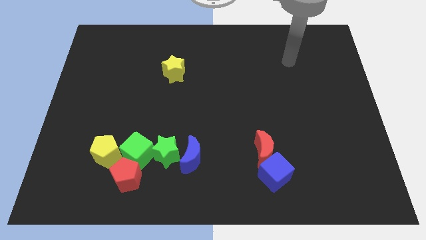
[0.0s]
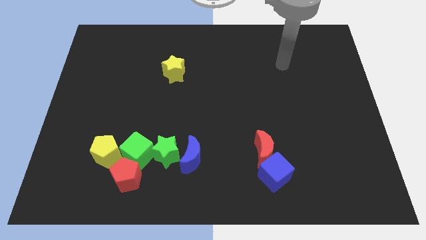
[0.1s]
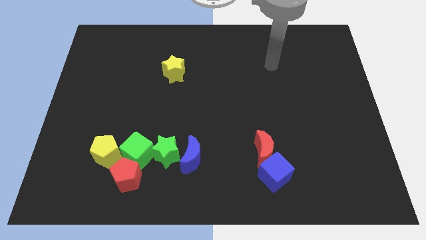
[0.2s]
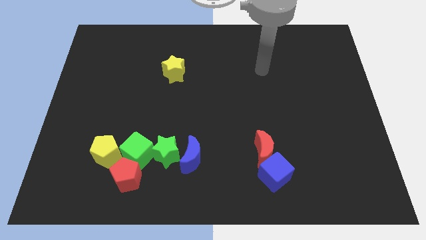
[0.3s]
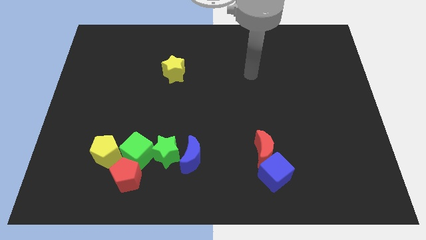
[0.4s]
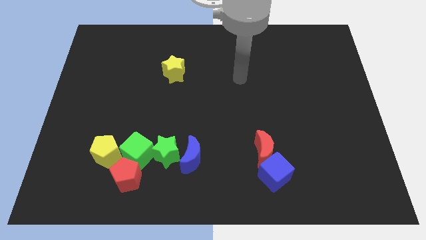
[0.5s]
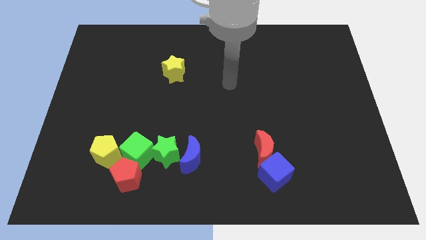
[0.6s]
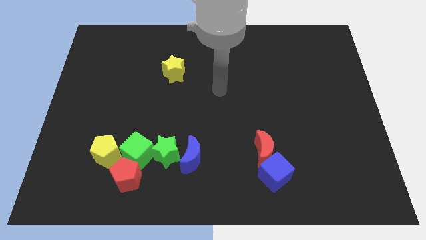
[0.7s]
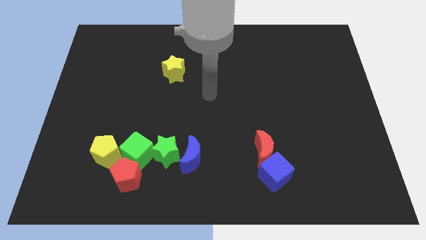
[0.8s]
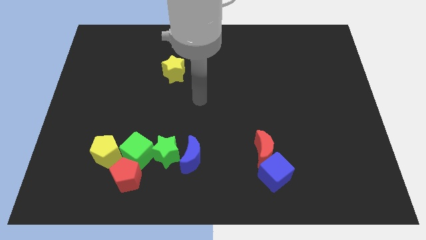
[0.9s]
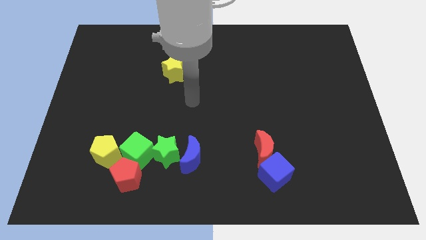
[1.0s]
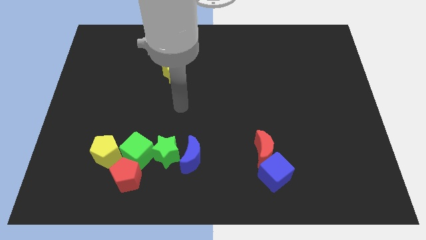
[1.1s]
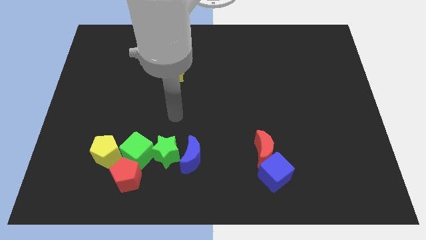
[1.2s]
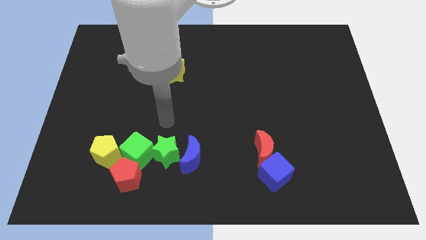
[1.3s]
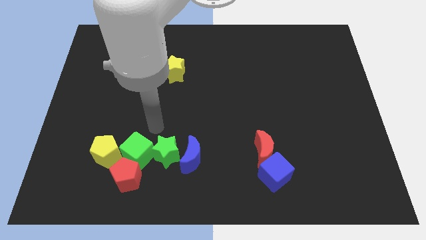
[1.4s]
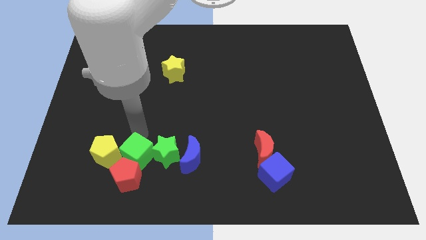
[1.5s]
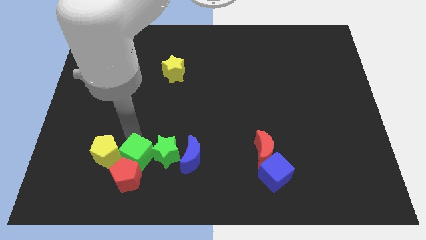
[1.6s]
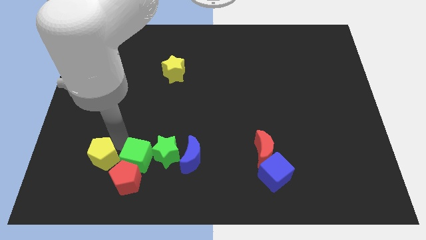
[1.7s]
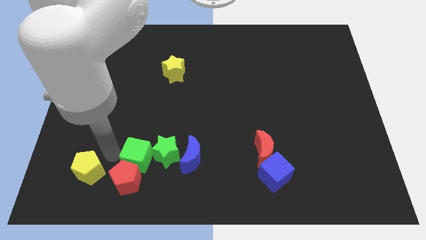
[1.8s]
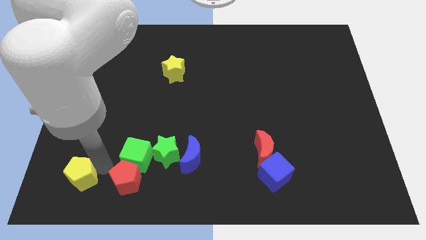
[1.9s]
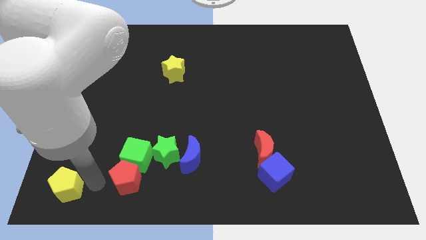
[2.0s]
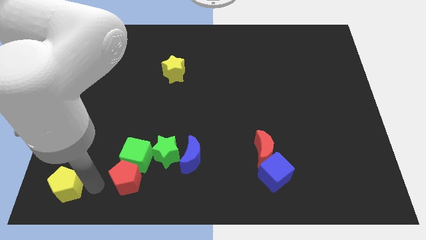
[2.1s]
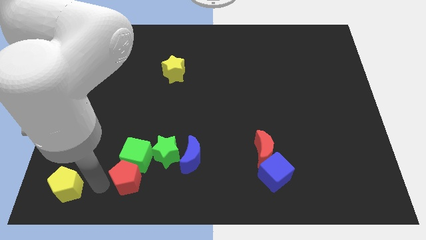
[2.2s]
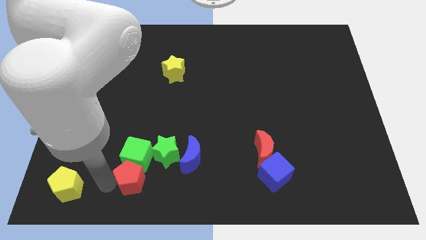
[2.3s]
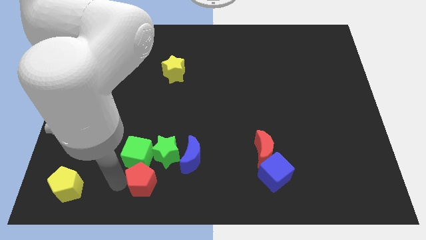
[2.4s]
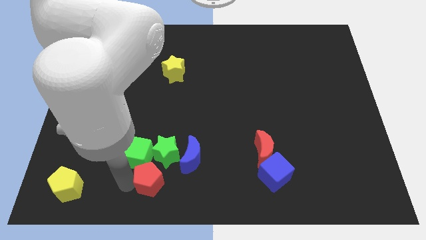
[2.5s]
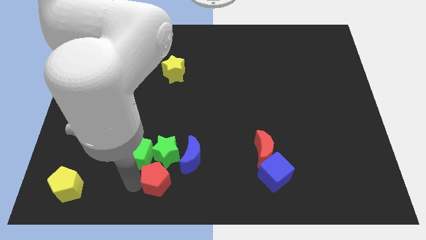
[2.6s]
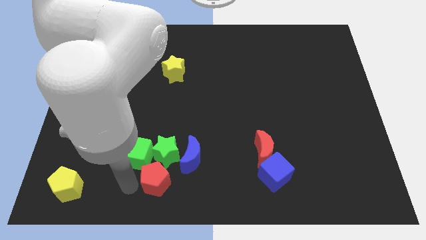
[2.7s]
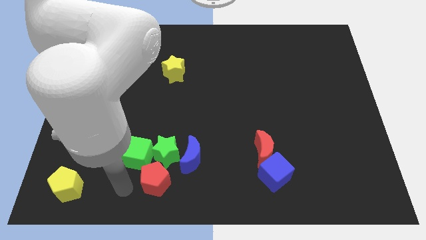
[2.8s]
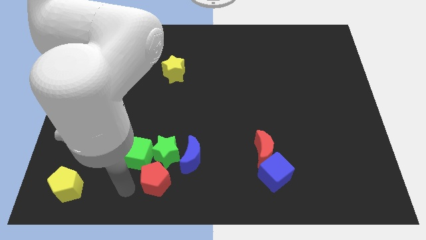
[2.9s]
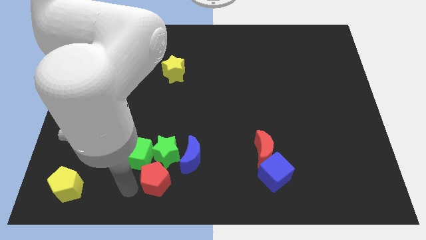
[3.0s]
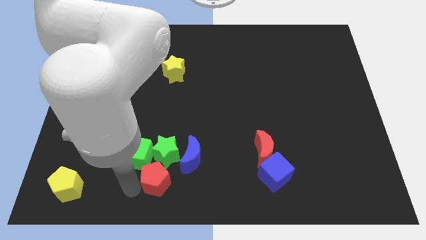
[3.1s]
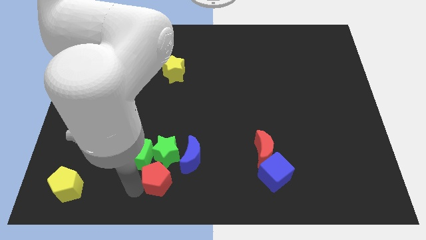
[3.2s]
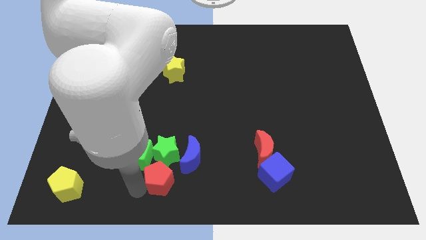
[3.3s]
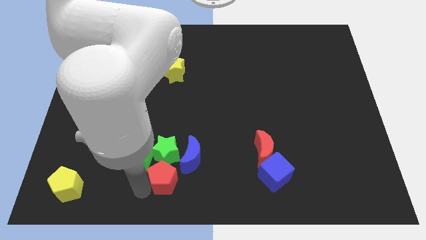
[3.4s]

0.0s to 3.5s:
push the red pentagon a bit to the right

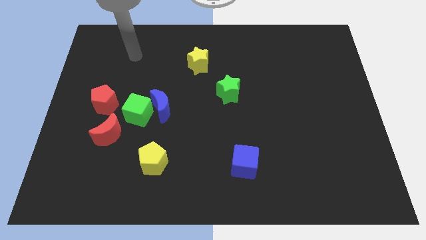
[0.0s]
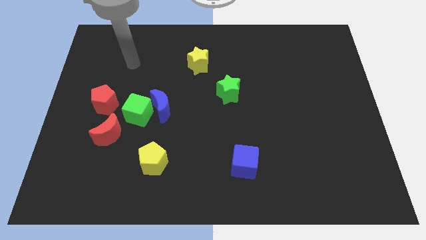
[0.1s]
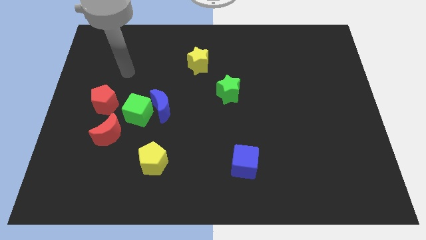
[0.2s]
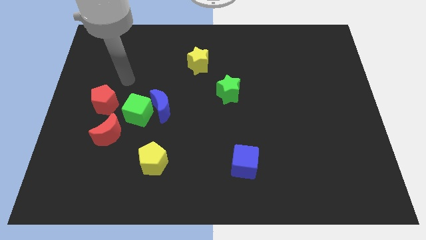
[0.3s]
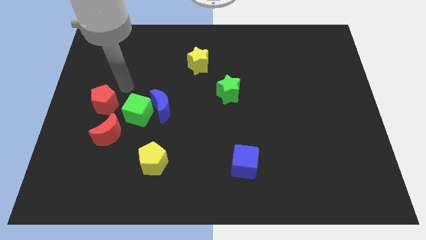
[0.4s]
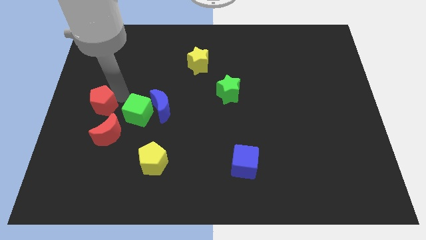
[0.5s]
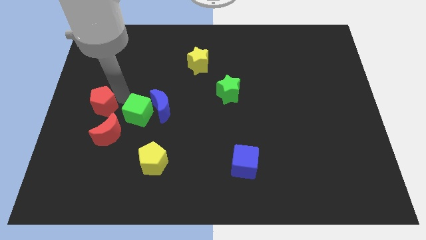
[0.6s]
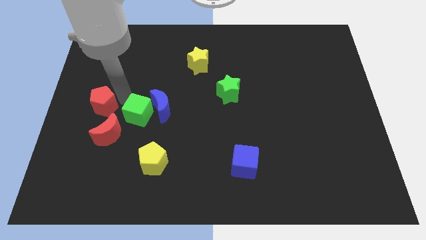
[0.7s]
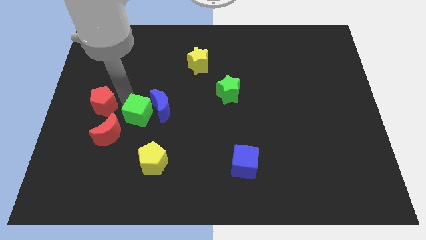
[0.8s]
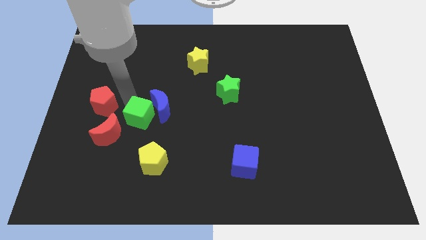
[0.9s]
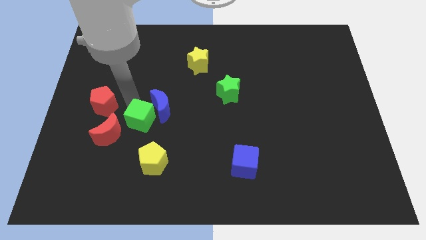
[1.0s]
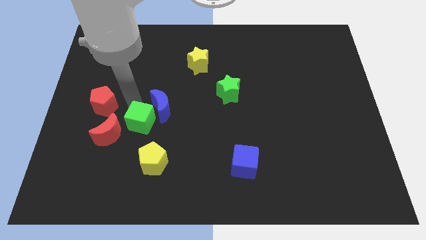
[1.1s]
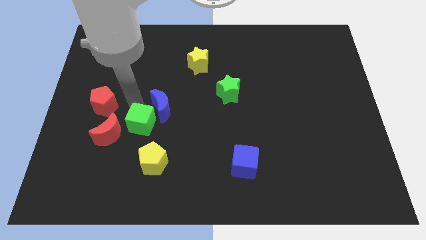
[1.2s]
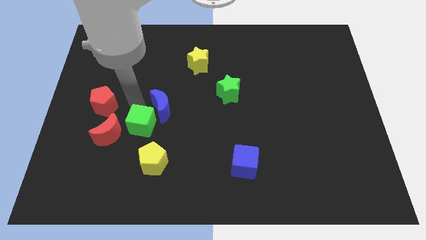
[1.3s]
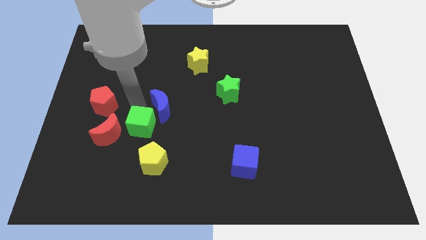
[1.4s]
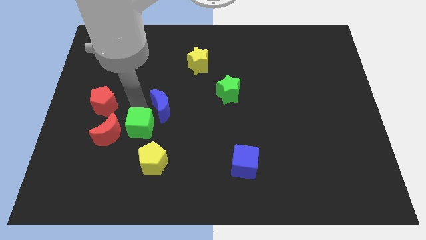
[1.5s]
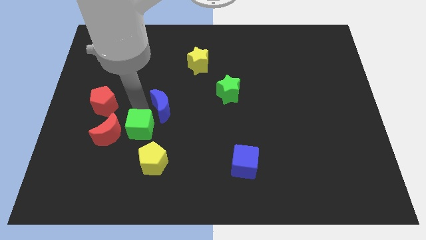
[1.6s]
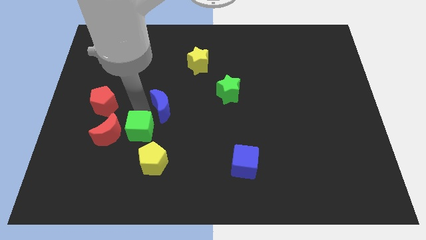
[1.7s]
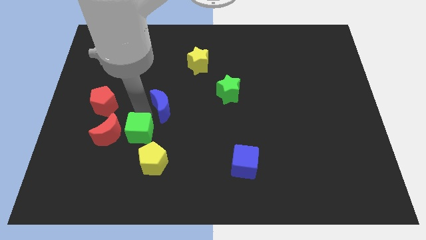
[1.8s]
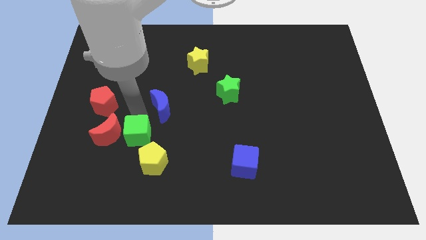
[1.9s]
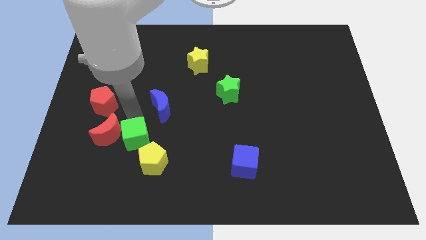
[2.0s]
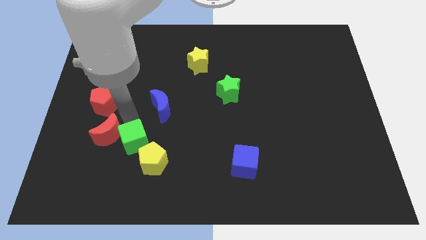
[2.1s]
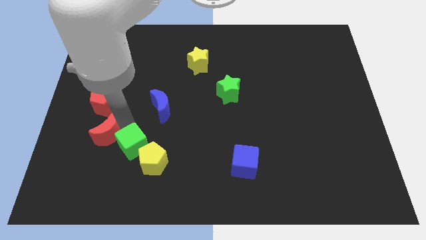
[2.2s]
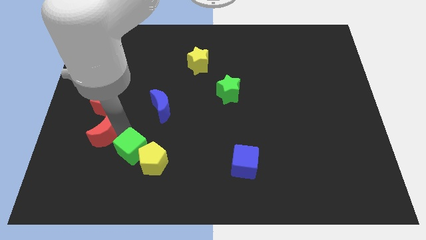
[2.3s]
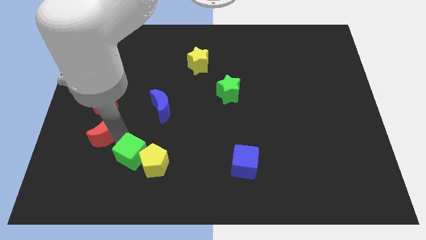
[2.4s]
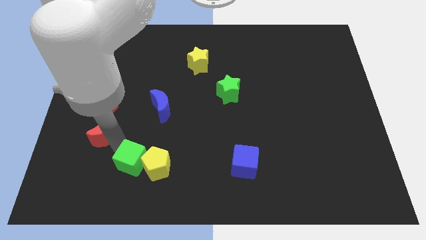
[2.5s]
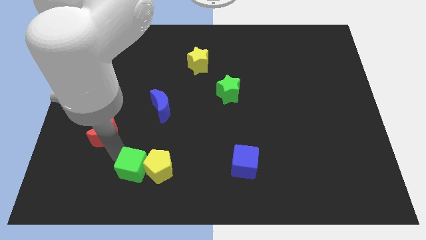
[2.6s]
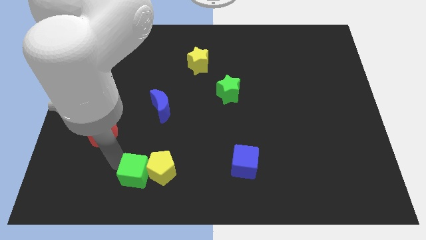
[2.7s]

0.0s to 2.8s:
slide the green cube downwards and to the right diagonally a bit

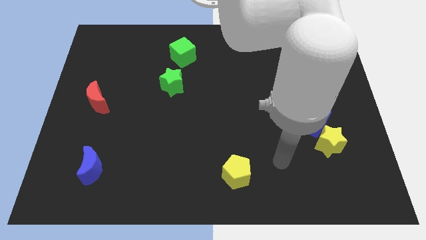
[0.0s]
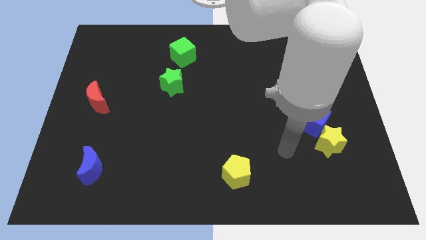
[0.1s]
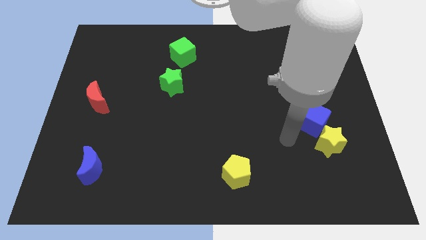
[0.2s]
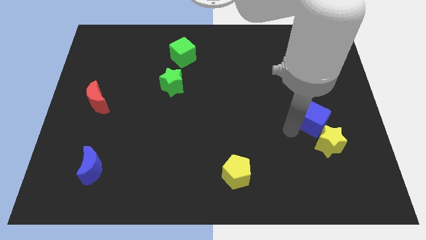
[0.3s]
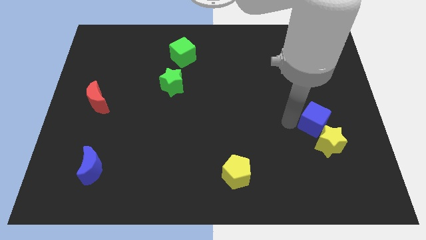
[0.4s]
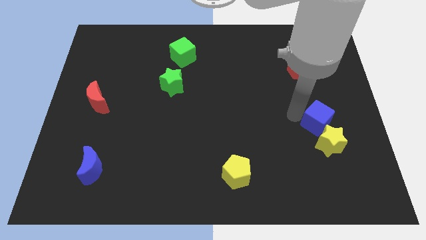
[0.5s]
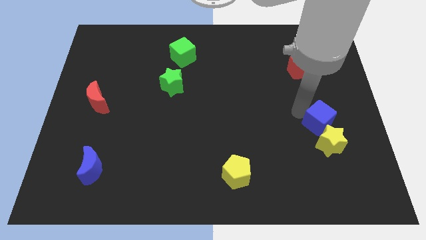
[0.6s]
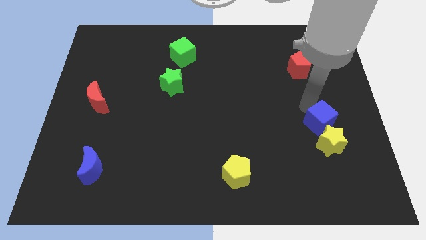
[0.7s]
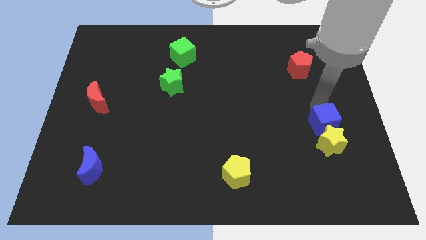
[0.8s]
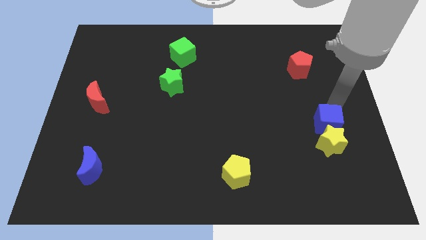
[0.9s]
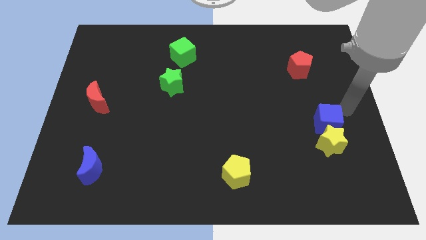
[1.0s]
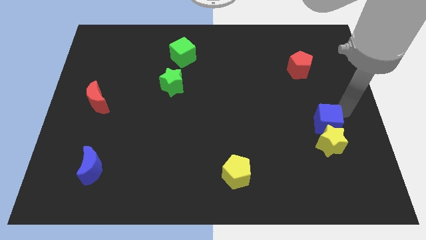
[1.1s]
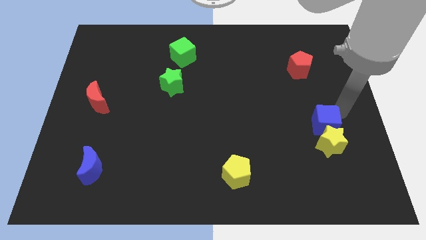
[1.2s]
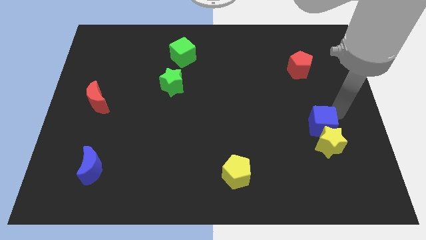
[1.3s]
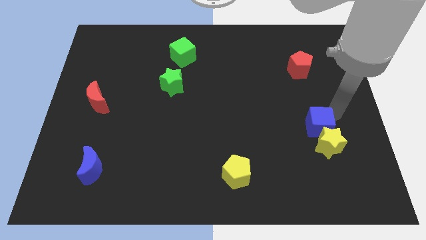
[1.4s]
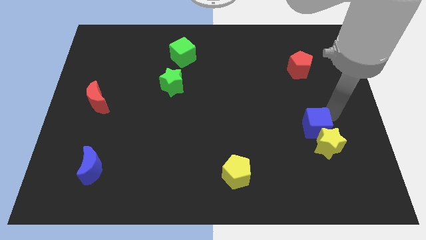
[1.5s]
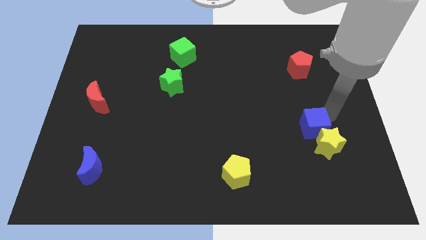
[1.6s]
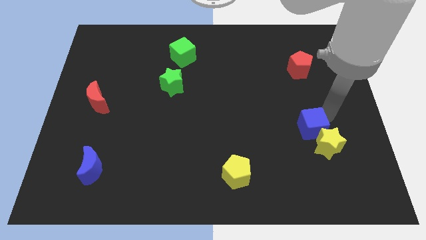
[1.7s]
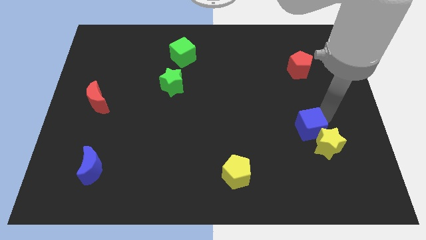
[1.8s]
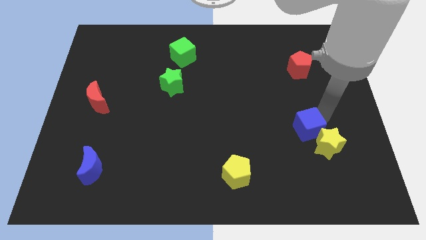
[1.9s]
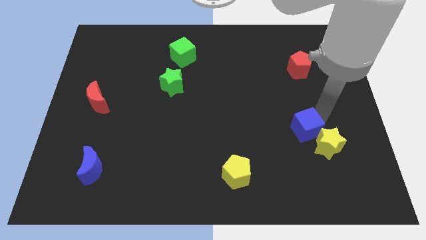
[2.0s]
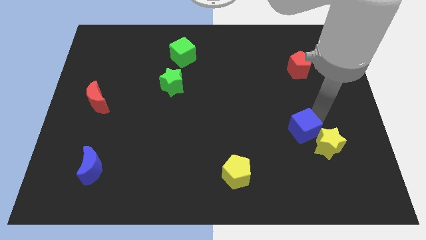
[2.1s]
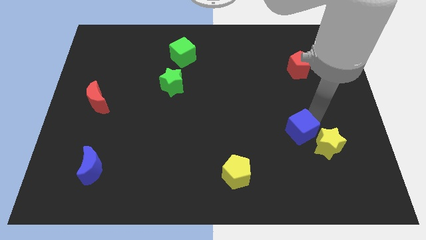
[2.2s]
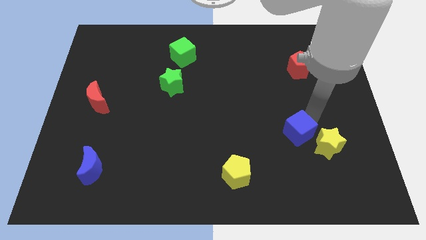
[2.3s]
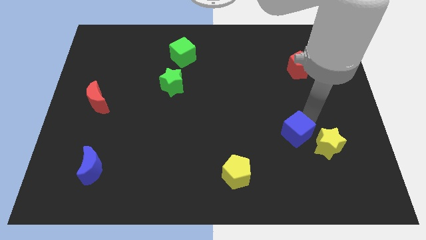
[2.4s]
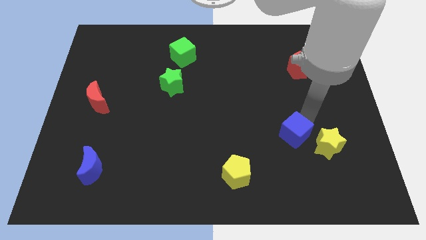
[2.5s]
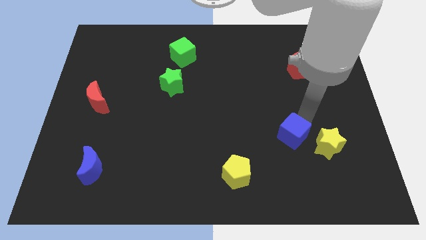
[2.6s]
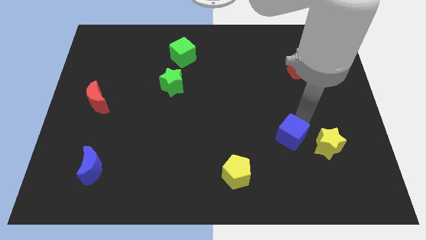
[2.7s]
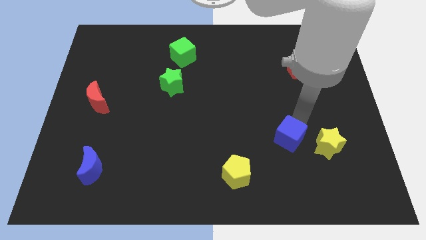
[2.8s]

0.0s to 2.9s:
slightly push the blue cube downwards and left diagonally
